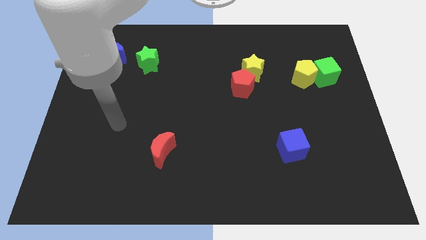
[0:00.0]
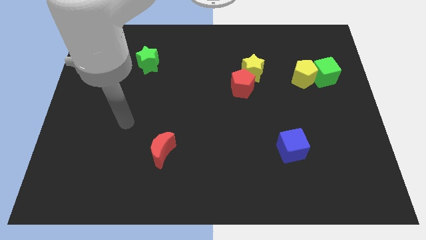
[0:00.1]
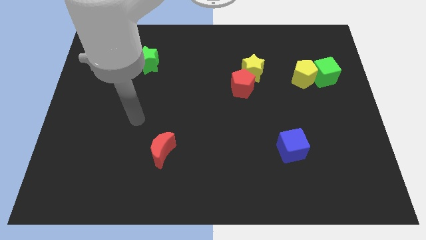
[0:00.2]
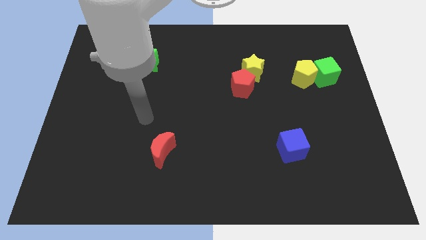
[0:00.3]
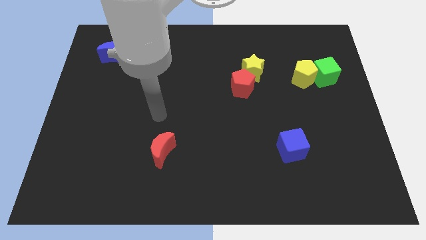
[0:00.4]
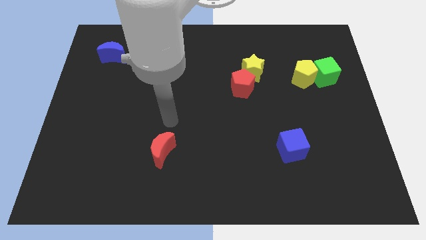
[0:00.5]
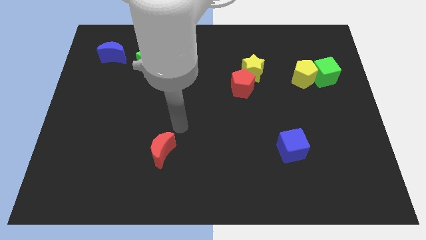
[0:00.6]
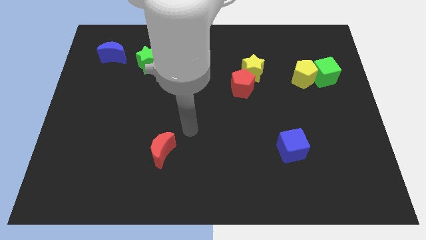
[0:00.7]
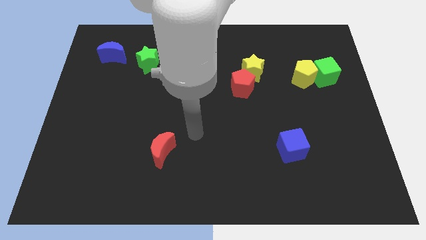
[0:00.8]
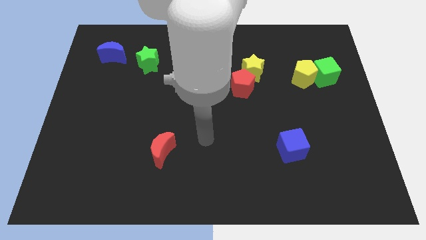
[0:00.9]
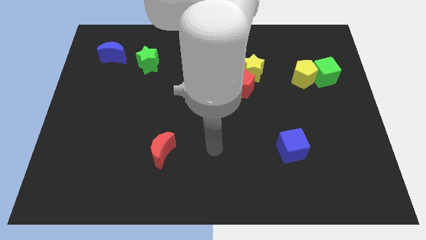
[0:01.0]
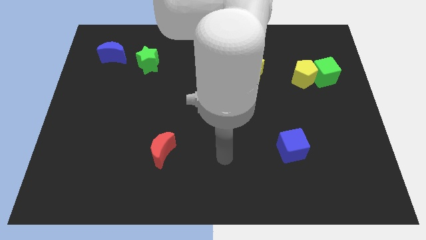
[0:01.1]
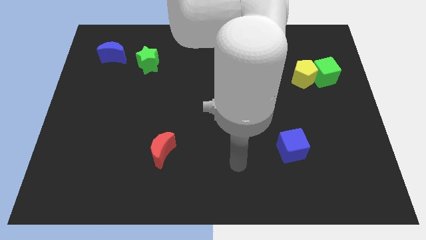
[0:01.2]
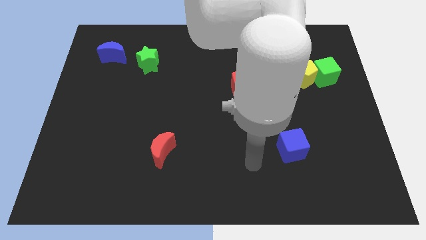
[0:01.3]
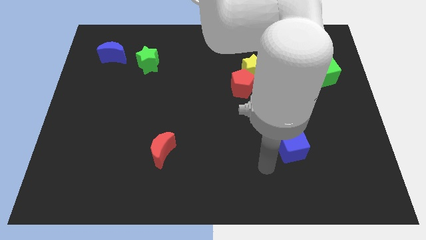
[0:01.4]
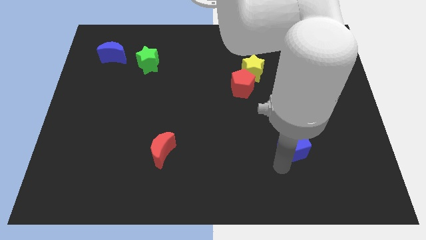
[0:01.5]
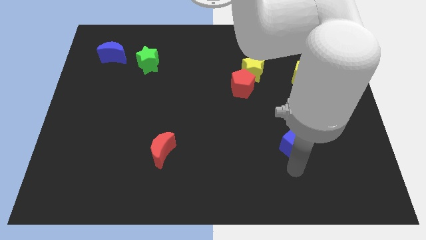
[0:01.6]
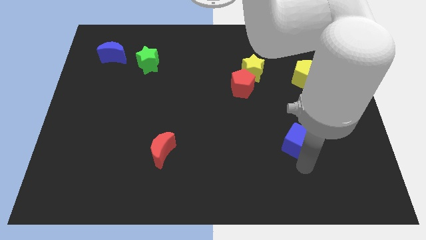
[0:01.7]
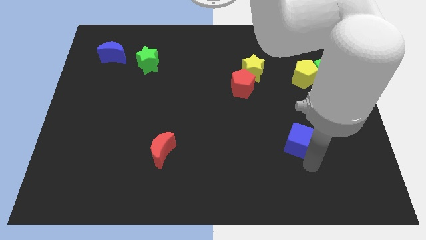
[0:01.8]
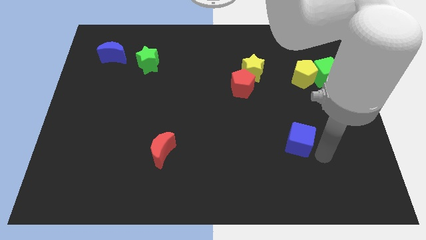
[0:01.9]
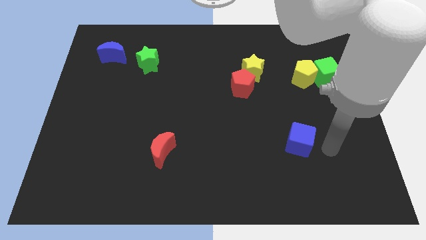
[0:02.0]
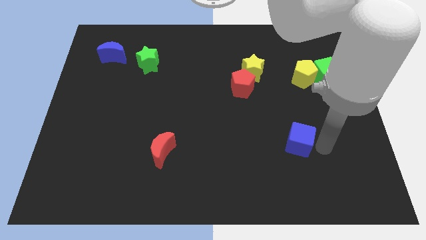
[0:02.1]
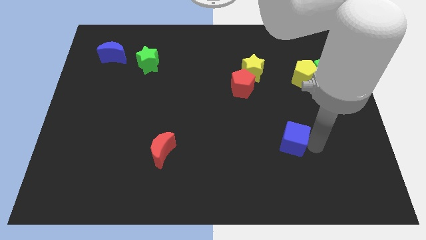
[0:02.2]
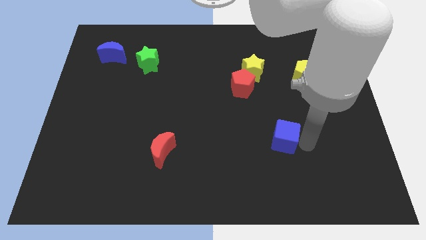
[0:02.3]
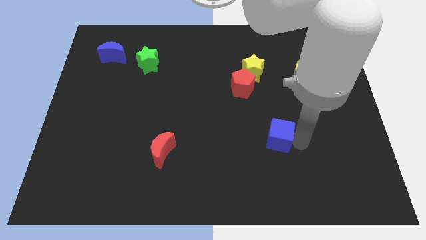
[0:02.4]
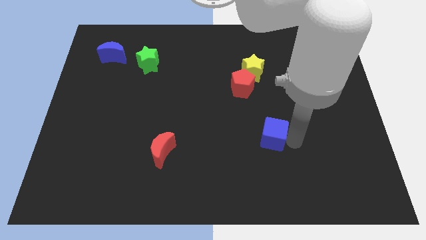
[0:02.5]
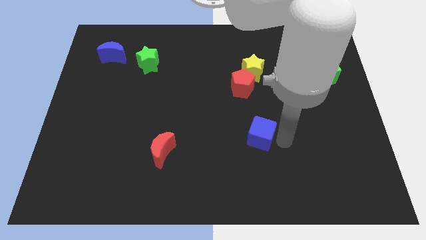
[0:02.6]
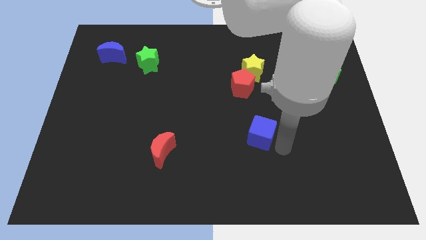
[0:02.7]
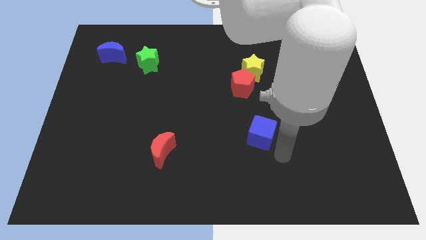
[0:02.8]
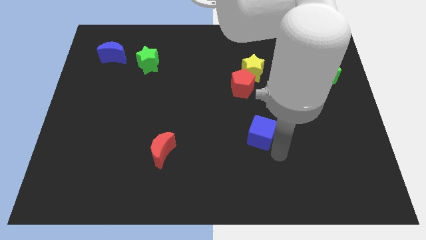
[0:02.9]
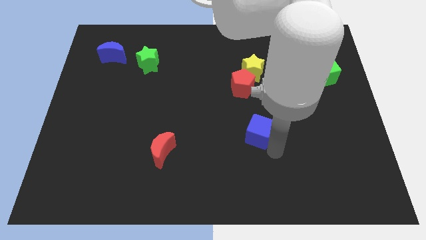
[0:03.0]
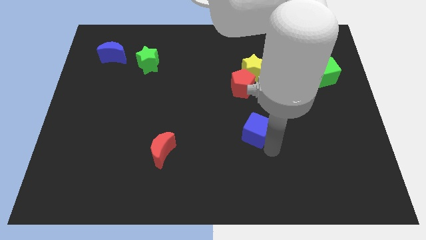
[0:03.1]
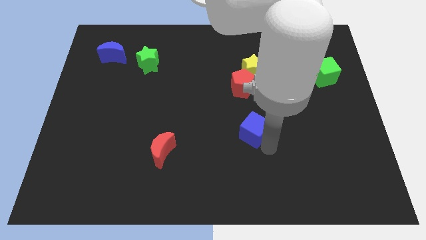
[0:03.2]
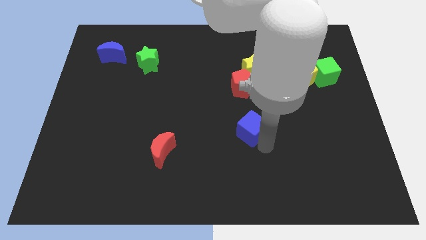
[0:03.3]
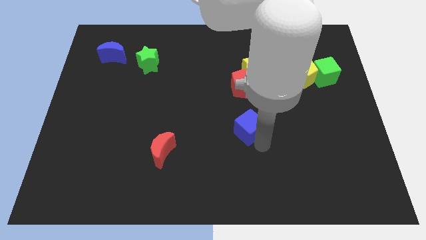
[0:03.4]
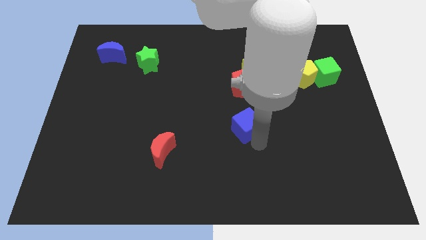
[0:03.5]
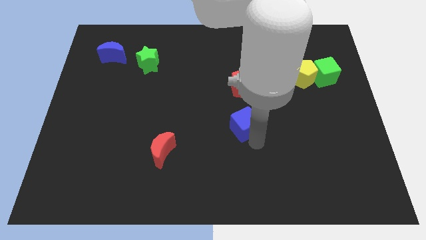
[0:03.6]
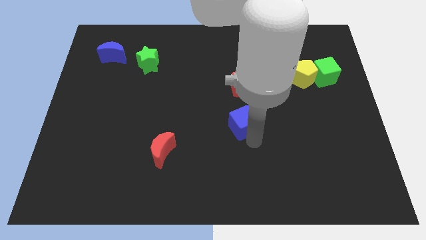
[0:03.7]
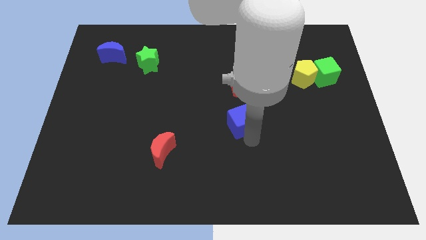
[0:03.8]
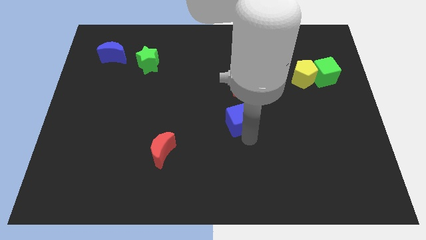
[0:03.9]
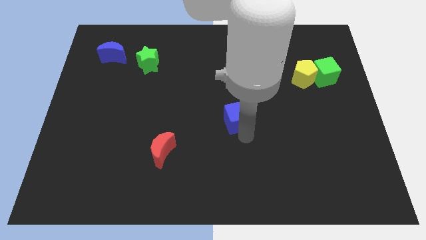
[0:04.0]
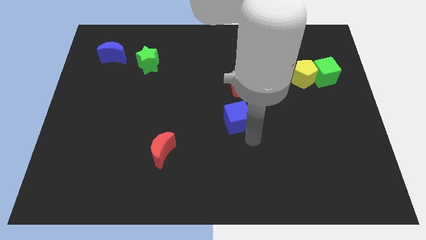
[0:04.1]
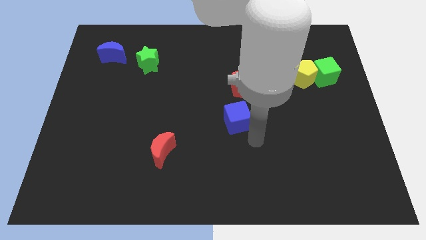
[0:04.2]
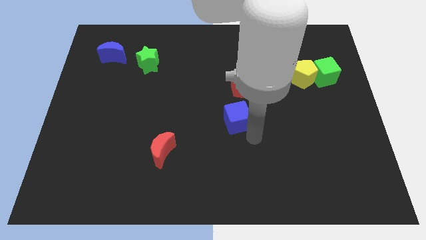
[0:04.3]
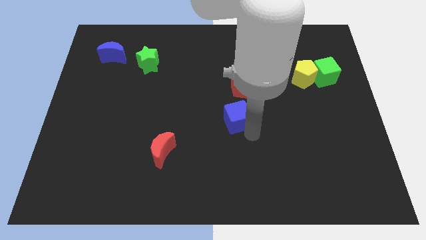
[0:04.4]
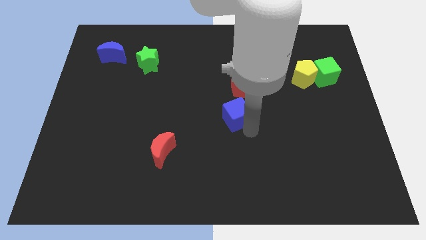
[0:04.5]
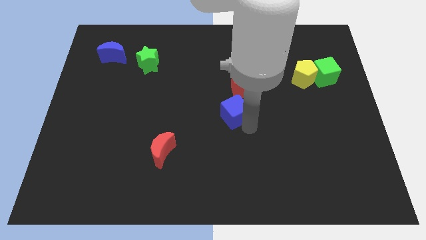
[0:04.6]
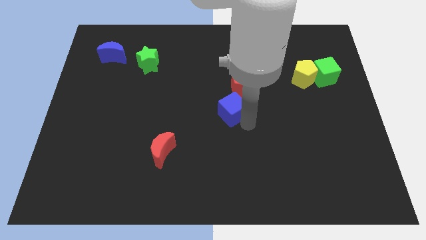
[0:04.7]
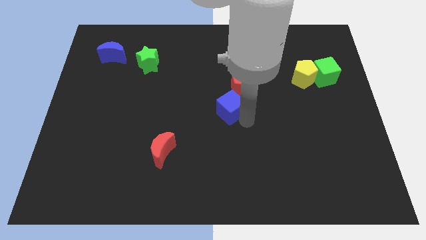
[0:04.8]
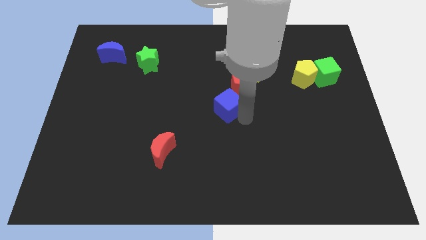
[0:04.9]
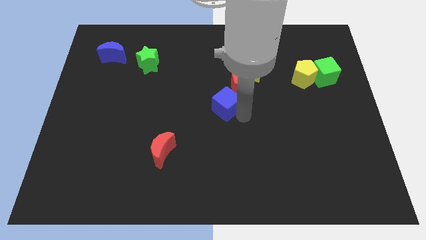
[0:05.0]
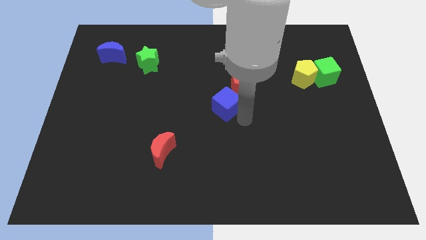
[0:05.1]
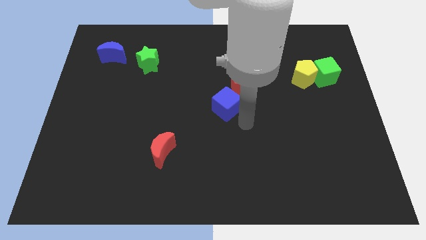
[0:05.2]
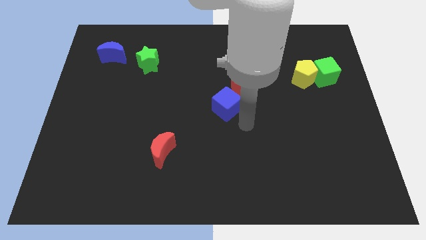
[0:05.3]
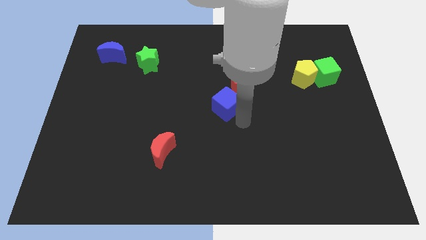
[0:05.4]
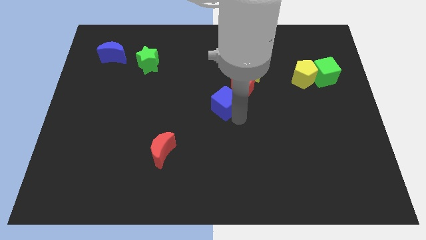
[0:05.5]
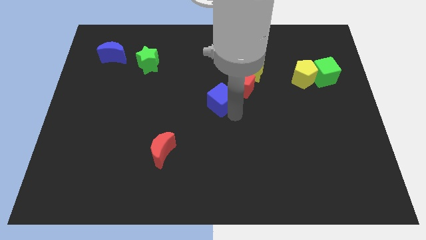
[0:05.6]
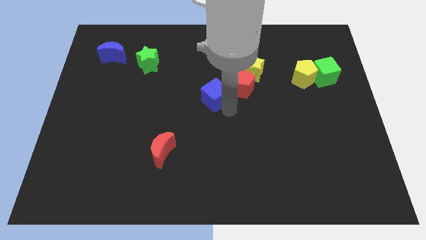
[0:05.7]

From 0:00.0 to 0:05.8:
slide the blue cube upwards and to the left diagonally

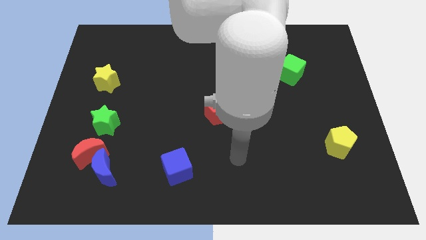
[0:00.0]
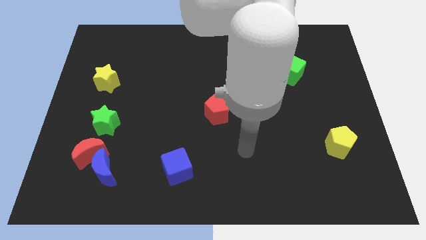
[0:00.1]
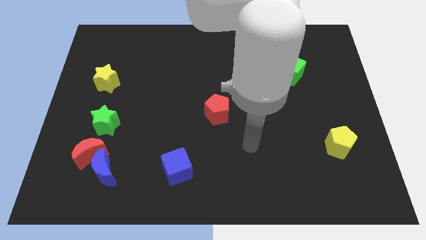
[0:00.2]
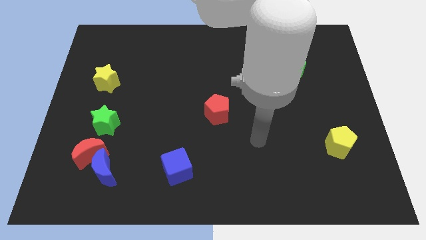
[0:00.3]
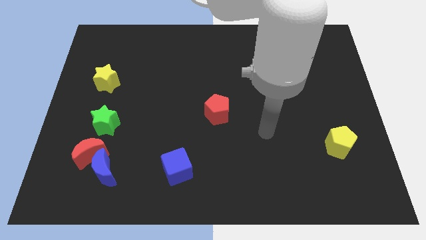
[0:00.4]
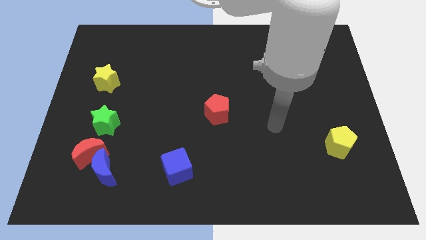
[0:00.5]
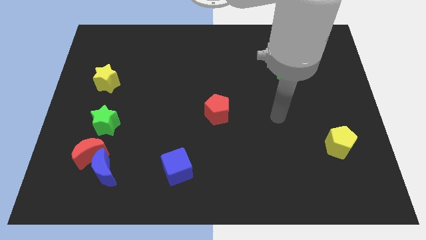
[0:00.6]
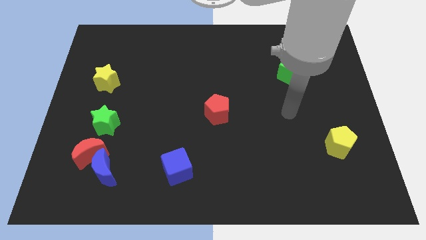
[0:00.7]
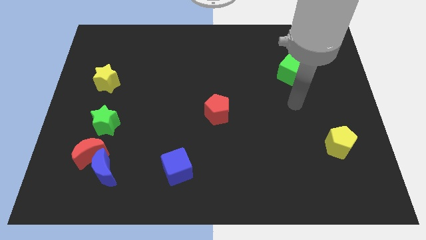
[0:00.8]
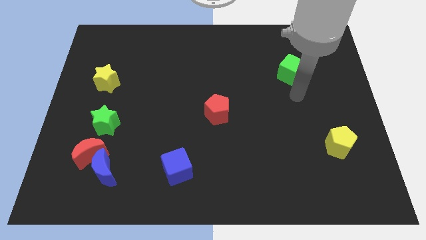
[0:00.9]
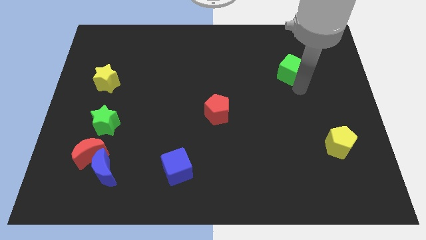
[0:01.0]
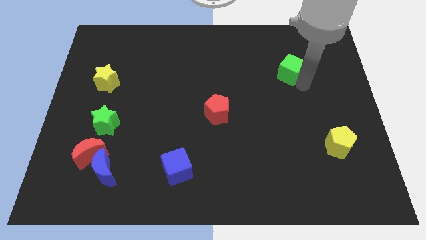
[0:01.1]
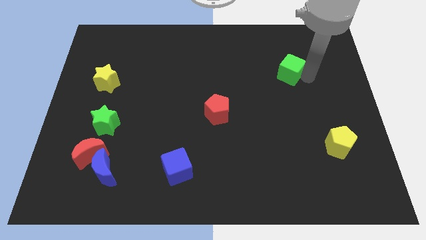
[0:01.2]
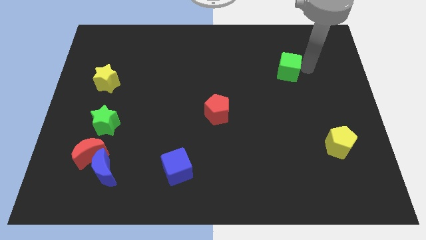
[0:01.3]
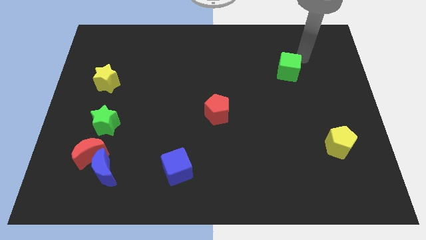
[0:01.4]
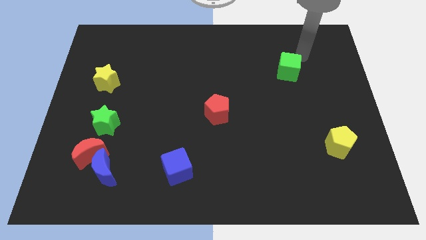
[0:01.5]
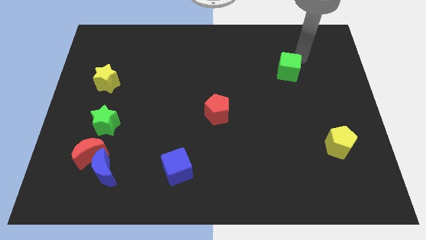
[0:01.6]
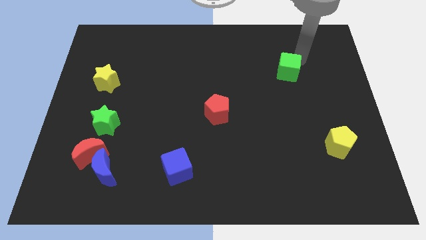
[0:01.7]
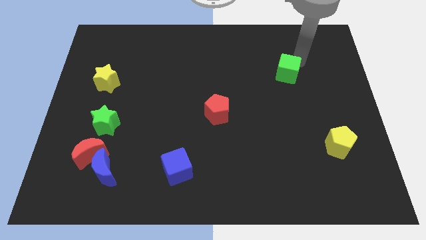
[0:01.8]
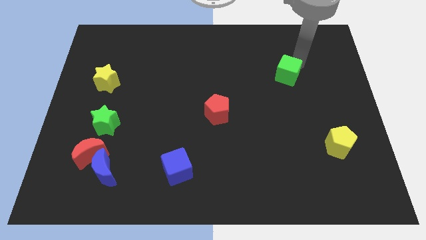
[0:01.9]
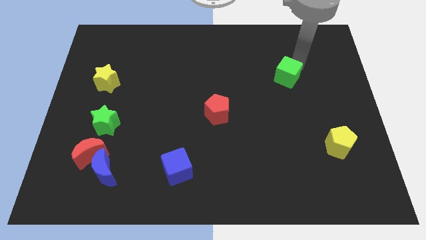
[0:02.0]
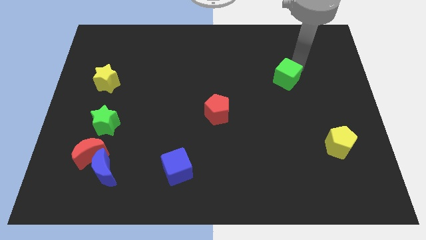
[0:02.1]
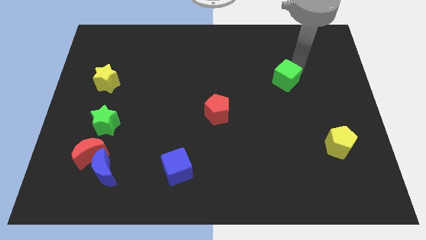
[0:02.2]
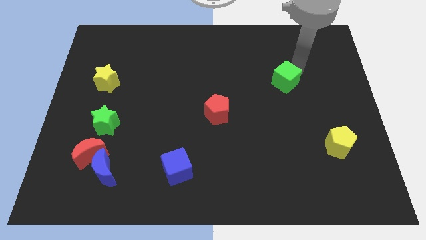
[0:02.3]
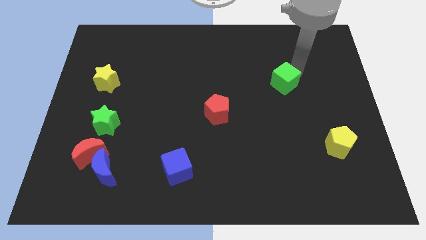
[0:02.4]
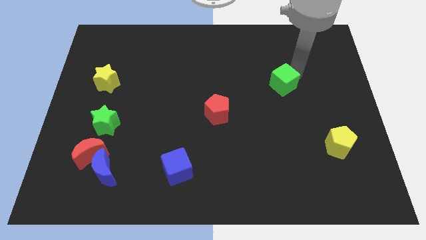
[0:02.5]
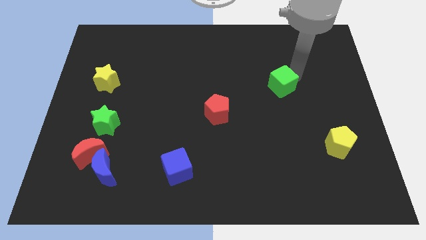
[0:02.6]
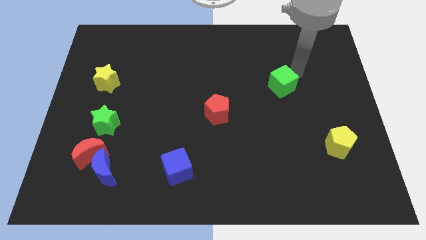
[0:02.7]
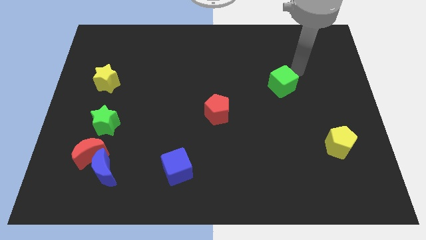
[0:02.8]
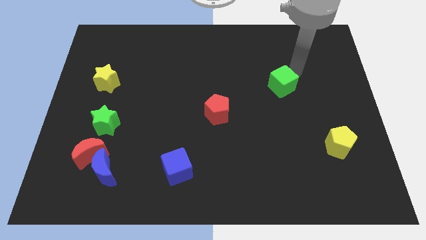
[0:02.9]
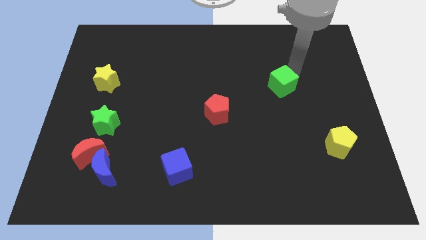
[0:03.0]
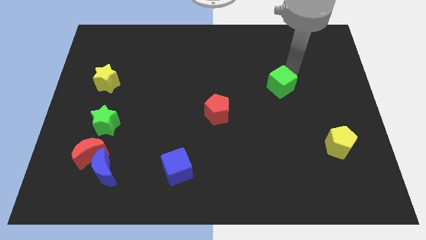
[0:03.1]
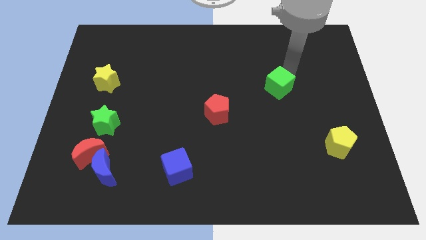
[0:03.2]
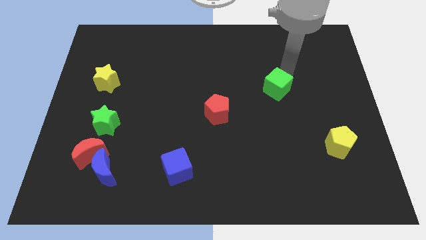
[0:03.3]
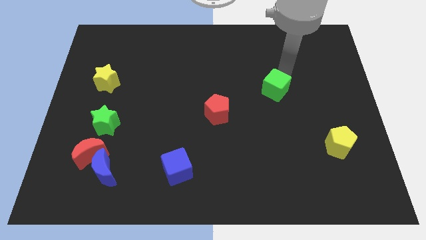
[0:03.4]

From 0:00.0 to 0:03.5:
push the green cube downwards and then left somewhat
